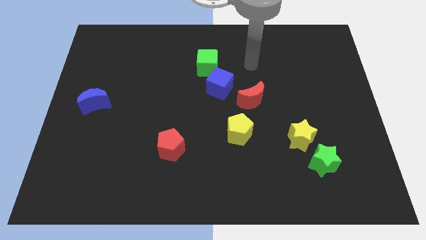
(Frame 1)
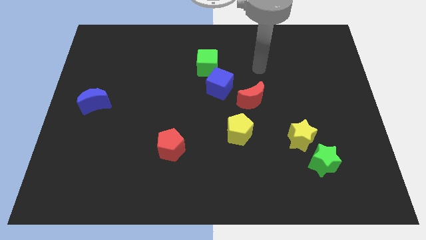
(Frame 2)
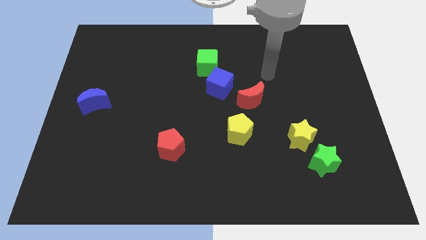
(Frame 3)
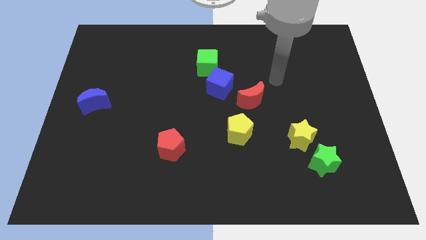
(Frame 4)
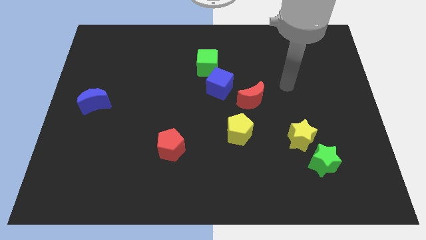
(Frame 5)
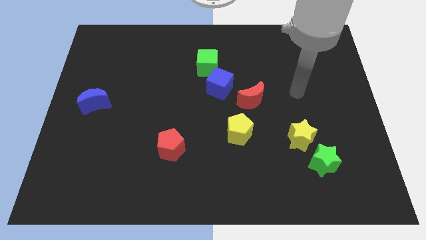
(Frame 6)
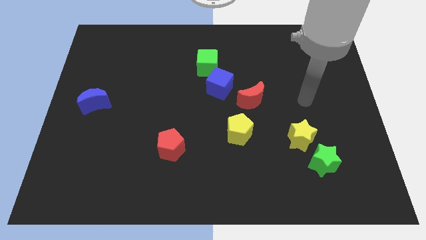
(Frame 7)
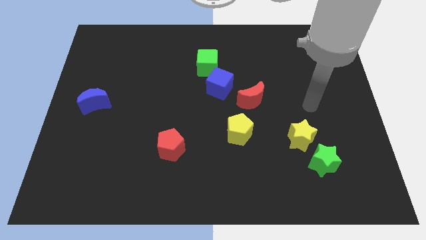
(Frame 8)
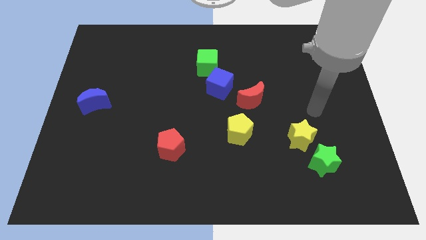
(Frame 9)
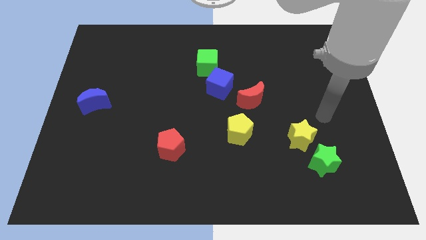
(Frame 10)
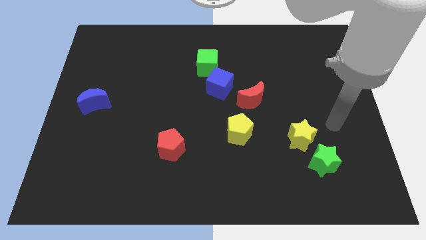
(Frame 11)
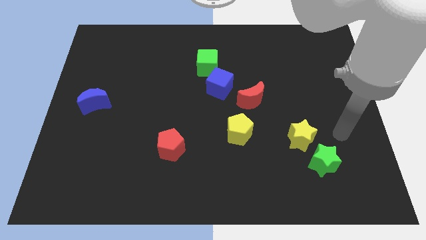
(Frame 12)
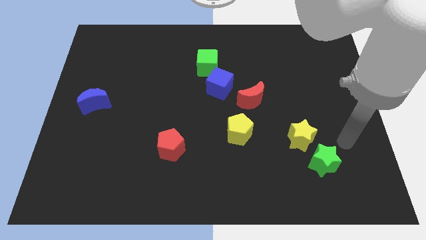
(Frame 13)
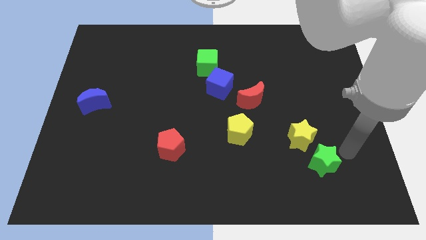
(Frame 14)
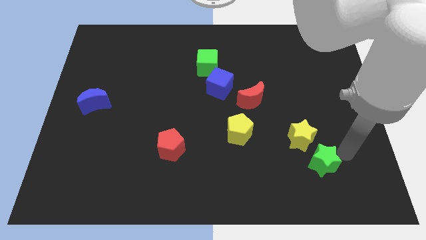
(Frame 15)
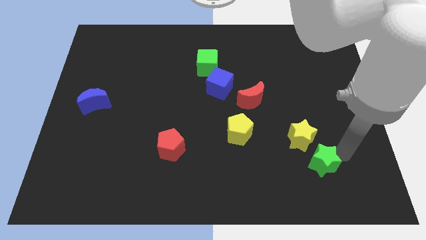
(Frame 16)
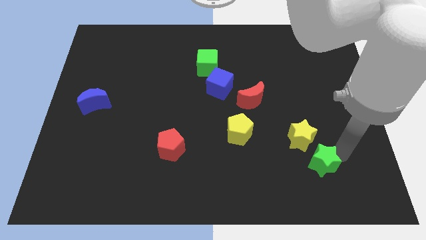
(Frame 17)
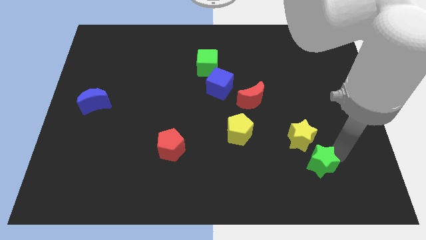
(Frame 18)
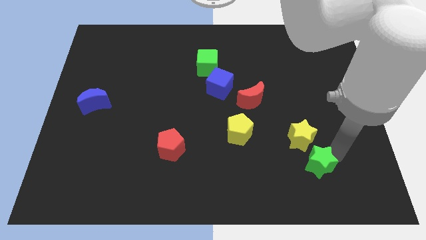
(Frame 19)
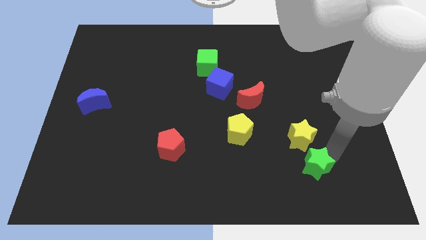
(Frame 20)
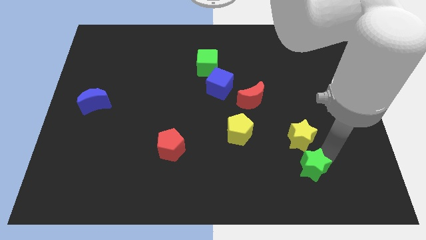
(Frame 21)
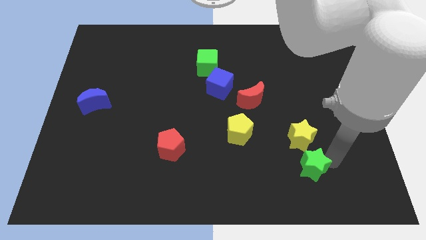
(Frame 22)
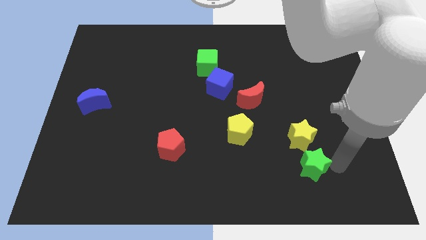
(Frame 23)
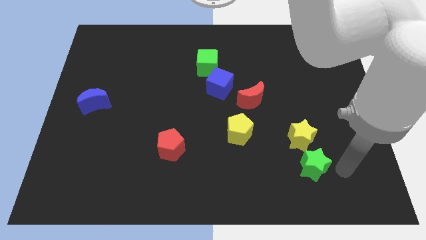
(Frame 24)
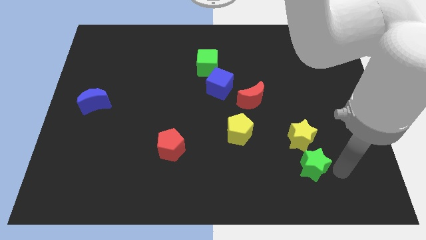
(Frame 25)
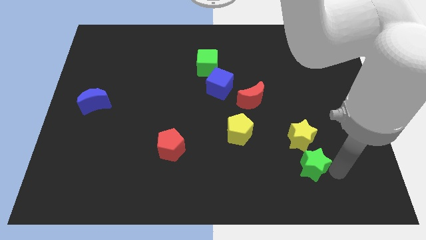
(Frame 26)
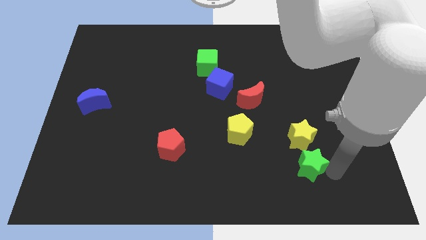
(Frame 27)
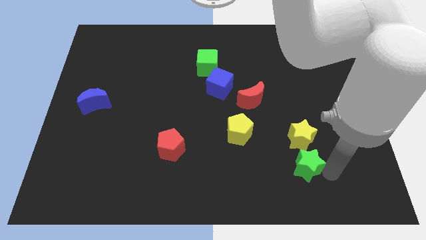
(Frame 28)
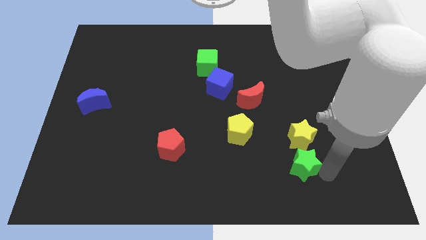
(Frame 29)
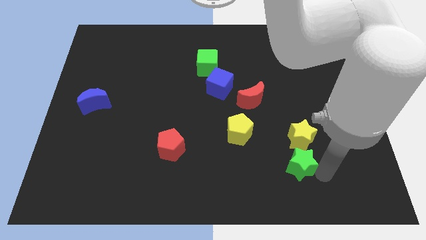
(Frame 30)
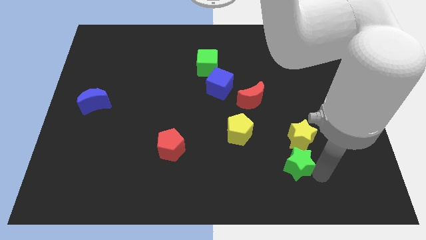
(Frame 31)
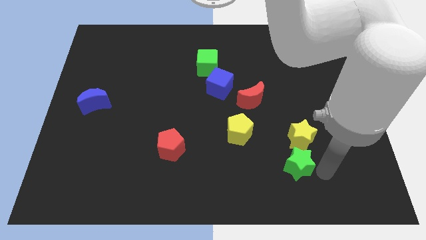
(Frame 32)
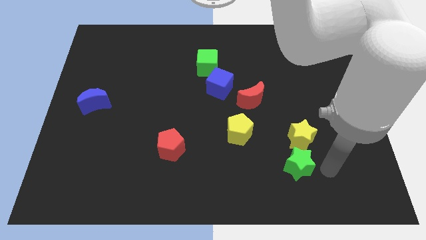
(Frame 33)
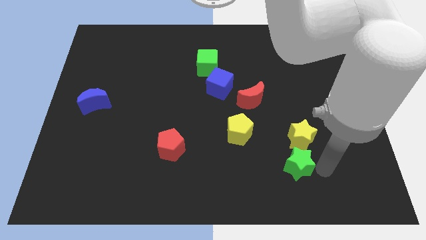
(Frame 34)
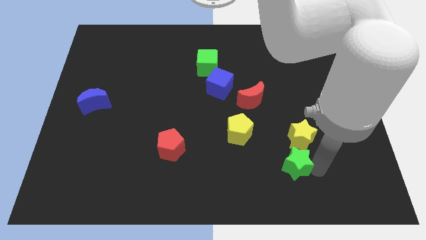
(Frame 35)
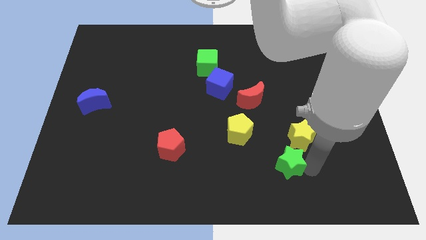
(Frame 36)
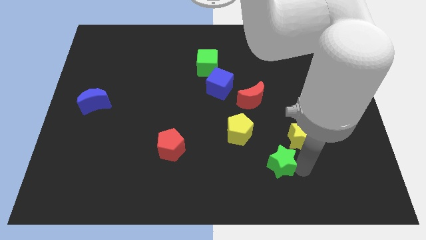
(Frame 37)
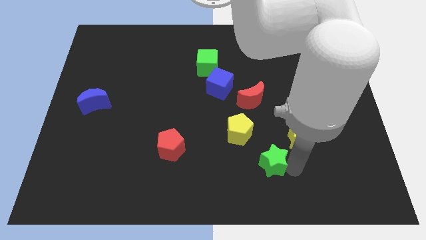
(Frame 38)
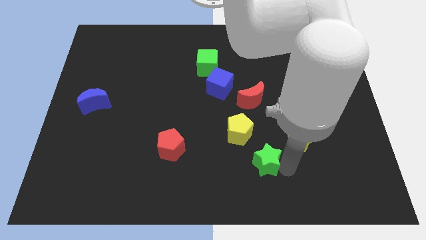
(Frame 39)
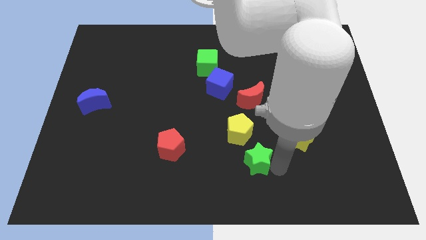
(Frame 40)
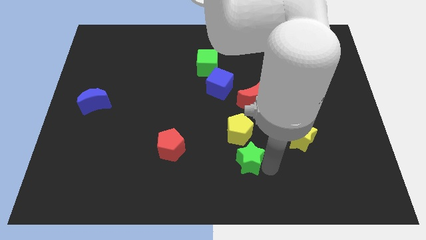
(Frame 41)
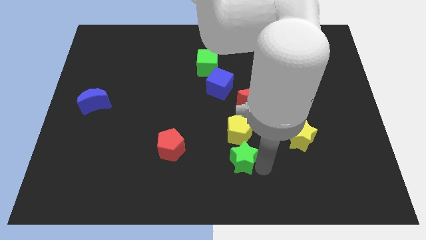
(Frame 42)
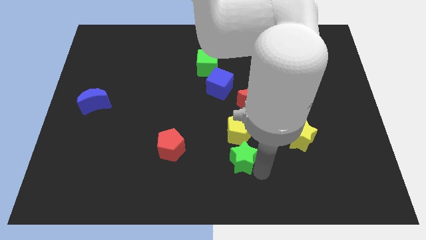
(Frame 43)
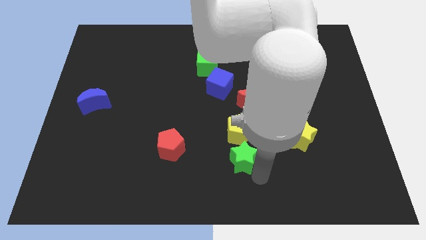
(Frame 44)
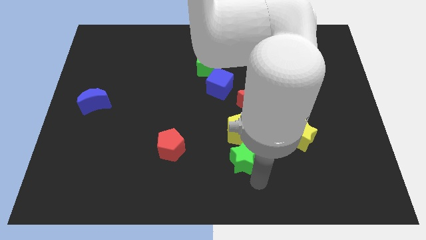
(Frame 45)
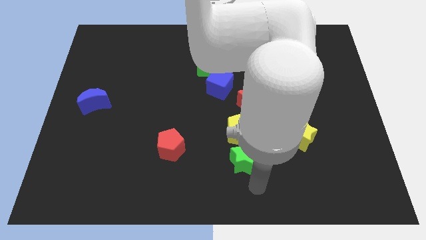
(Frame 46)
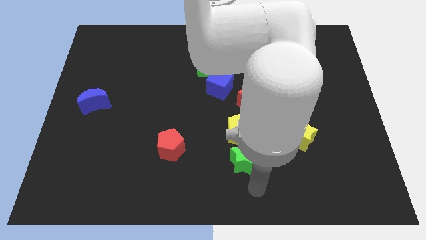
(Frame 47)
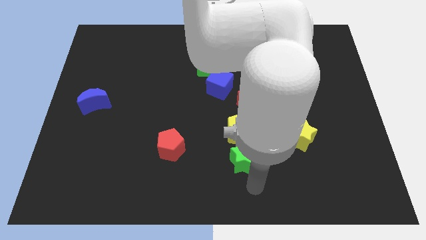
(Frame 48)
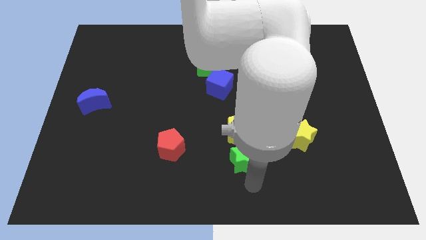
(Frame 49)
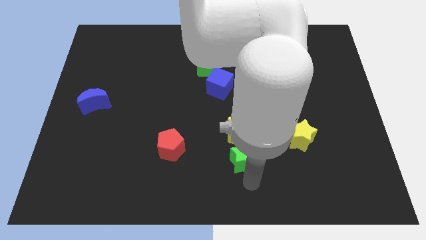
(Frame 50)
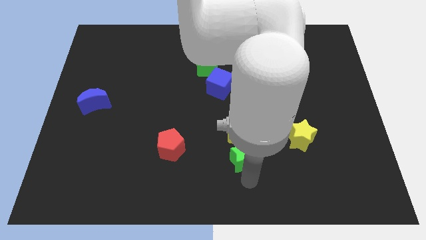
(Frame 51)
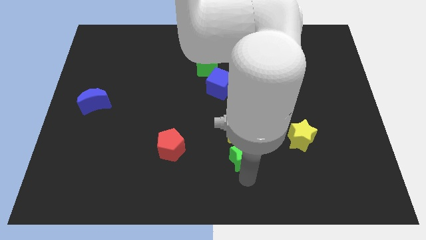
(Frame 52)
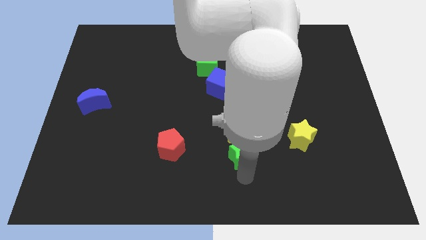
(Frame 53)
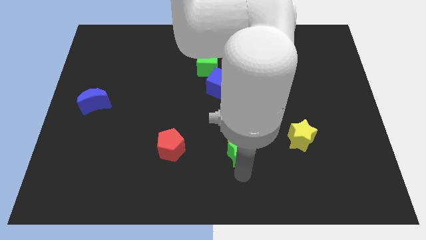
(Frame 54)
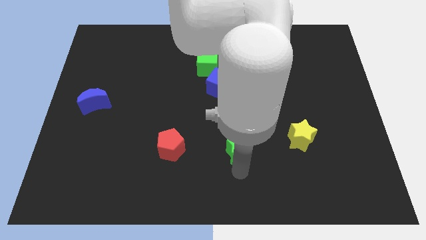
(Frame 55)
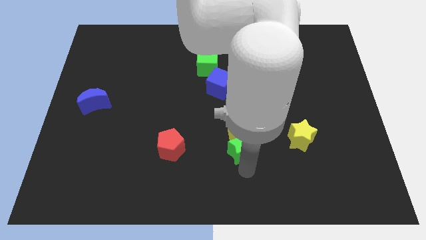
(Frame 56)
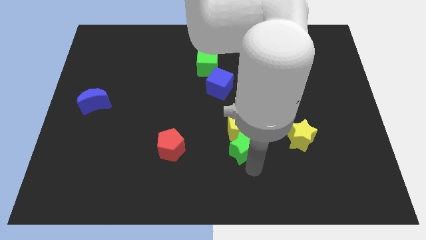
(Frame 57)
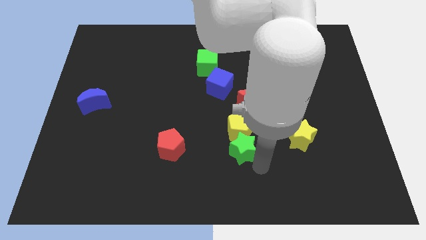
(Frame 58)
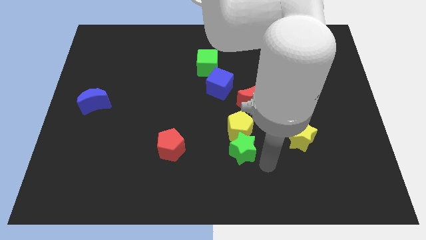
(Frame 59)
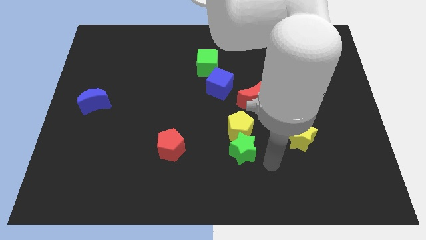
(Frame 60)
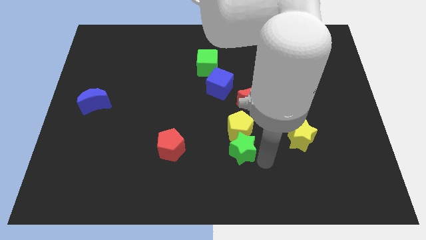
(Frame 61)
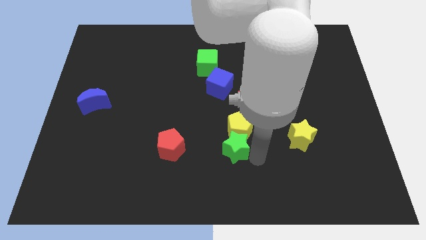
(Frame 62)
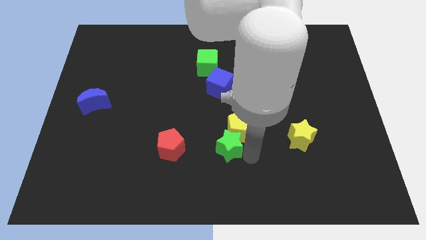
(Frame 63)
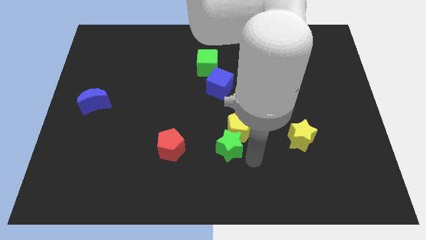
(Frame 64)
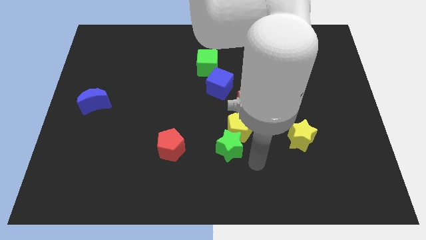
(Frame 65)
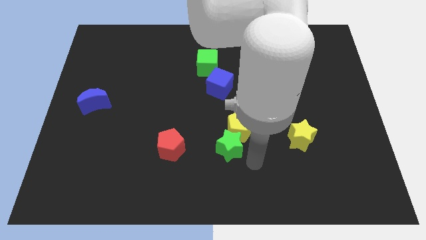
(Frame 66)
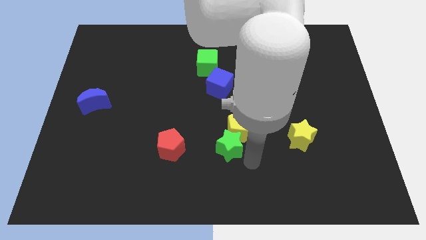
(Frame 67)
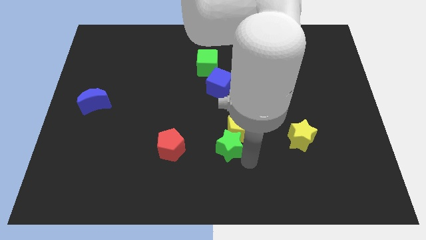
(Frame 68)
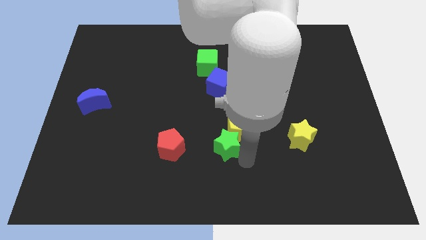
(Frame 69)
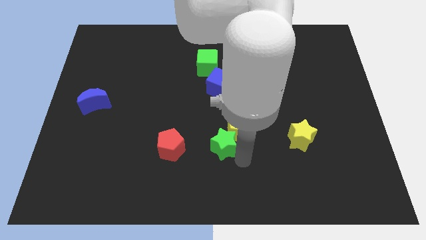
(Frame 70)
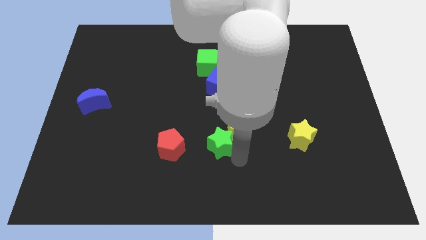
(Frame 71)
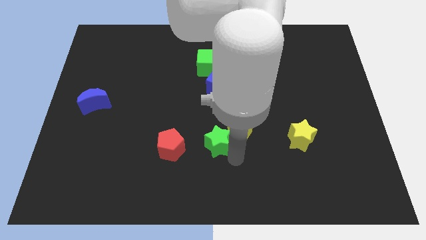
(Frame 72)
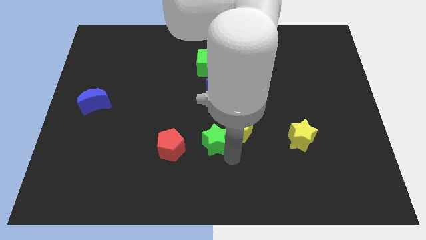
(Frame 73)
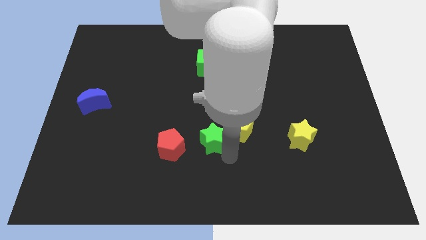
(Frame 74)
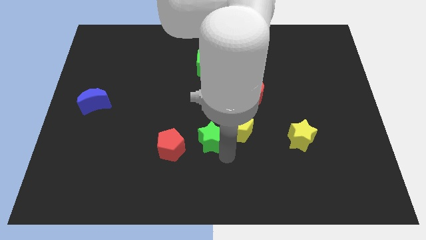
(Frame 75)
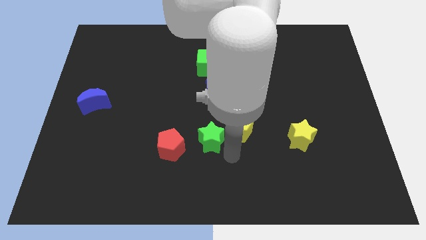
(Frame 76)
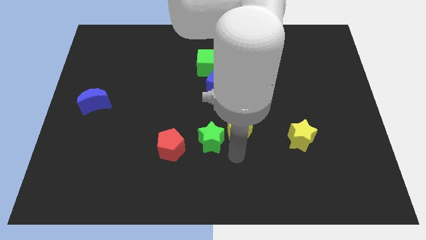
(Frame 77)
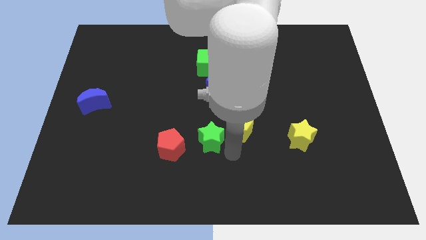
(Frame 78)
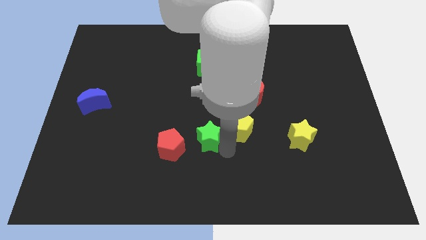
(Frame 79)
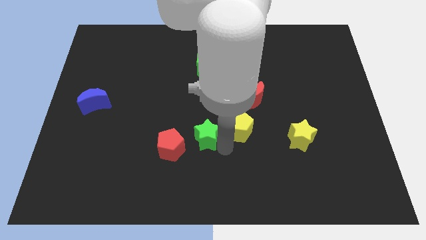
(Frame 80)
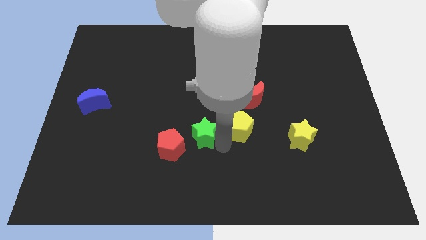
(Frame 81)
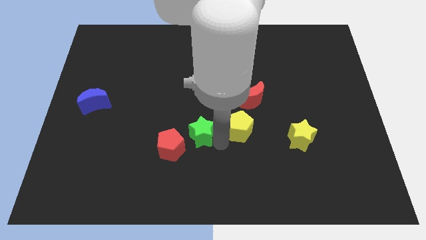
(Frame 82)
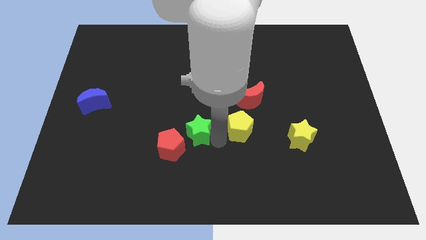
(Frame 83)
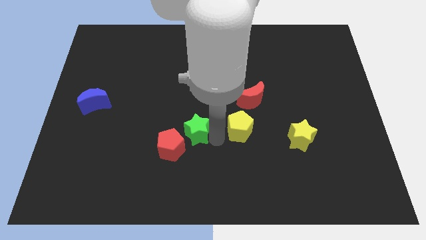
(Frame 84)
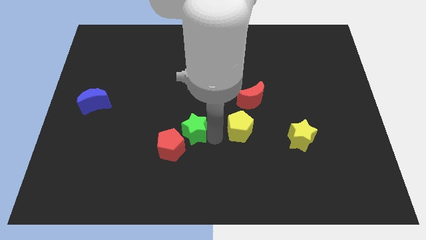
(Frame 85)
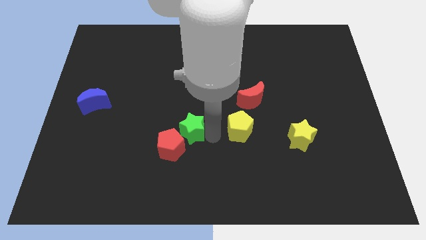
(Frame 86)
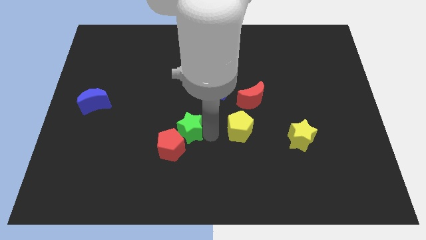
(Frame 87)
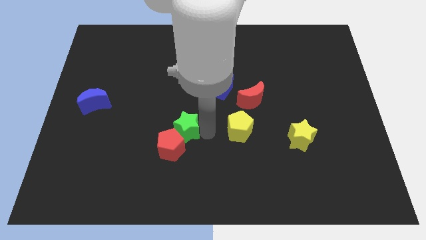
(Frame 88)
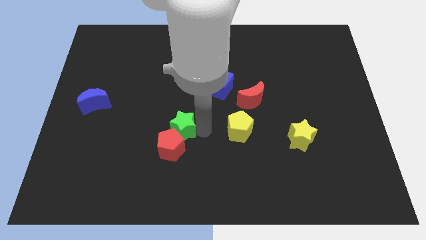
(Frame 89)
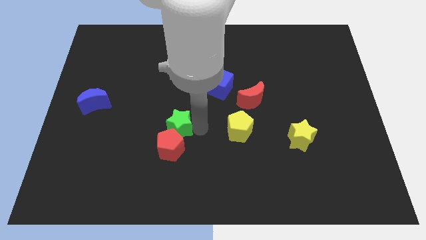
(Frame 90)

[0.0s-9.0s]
move the green star to the top left of the red pentagon
